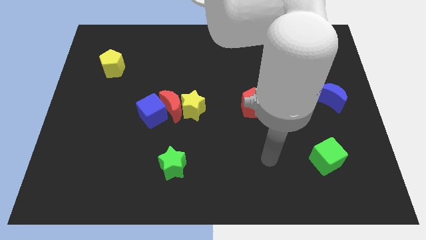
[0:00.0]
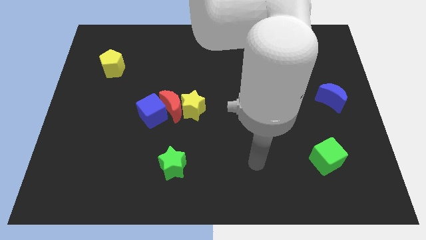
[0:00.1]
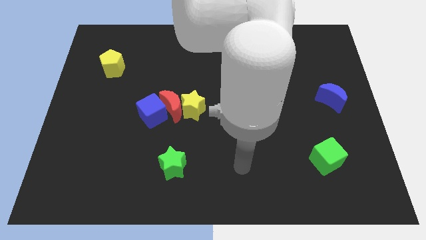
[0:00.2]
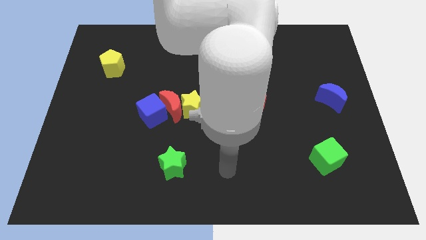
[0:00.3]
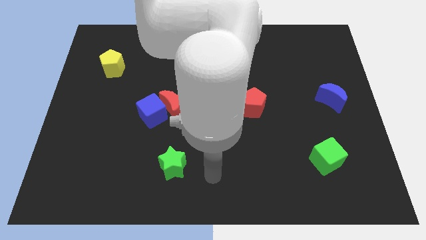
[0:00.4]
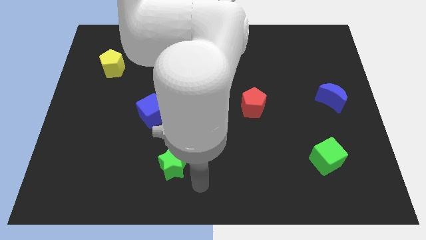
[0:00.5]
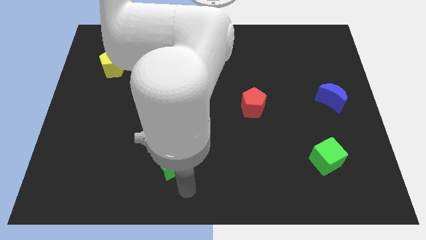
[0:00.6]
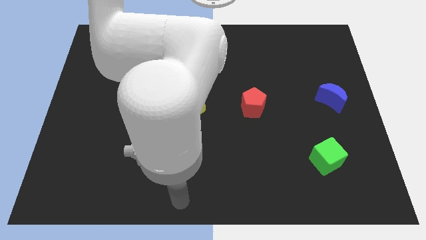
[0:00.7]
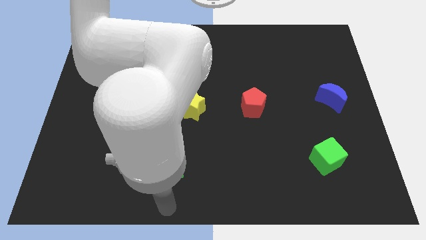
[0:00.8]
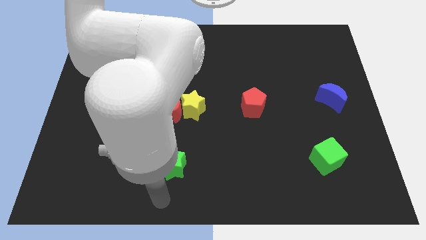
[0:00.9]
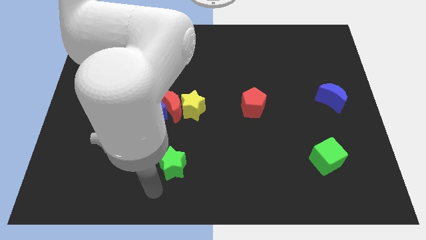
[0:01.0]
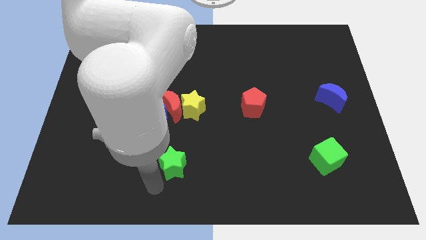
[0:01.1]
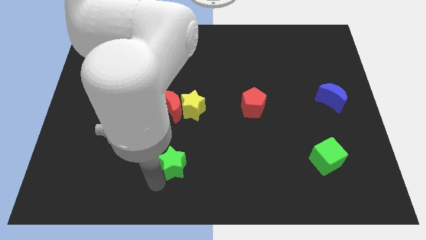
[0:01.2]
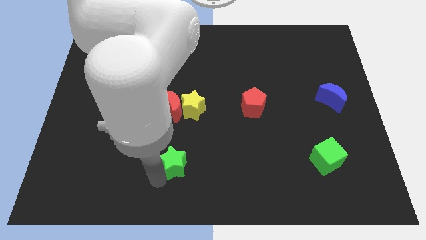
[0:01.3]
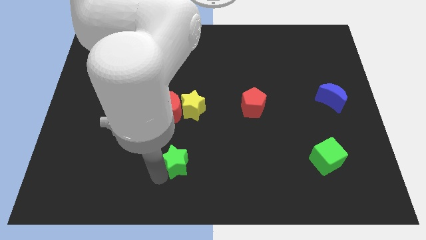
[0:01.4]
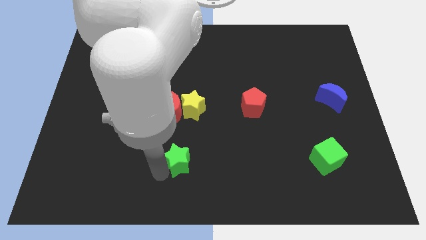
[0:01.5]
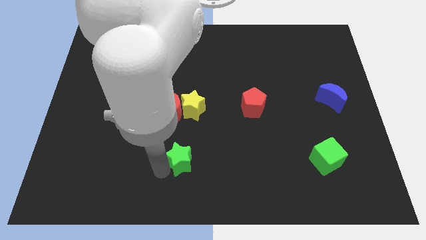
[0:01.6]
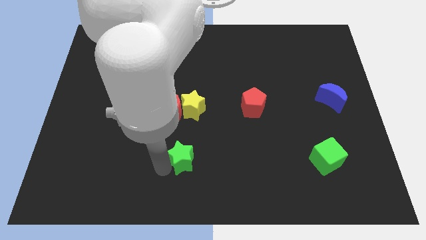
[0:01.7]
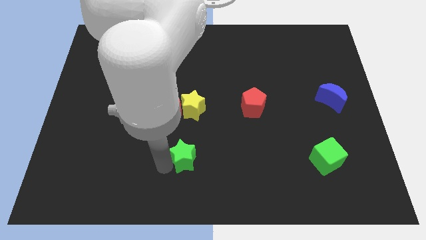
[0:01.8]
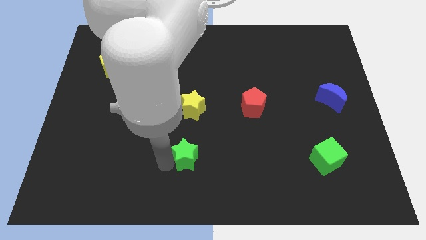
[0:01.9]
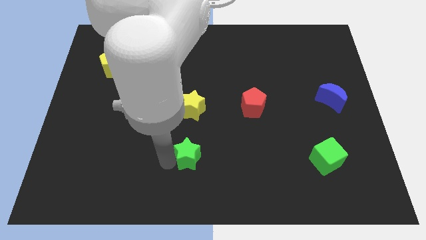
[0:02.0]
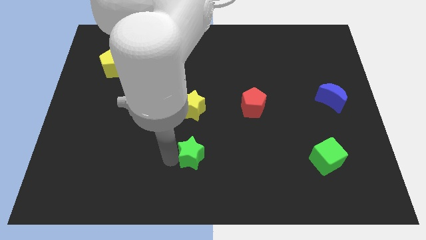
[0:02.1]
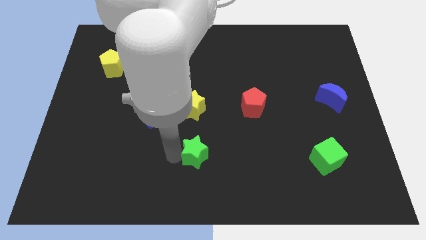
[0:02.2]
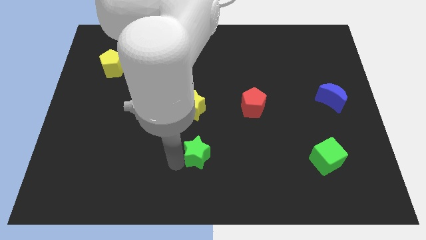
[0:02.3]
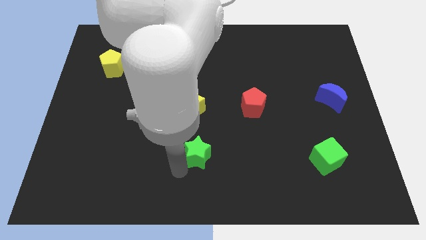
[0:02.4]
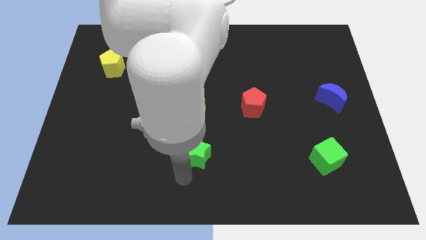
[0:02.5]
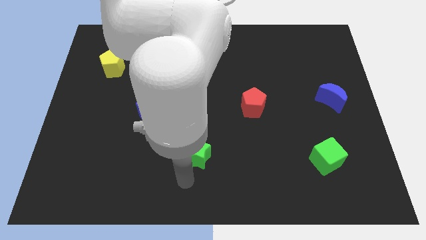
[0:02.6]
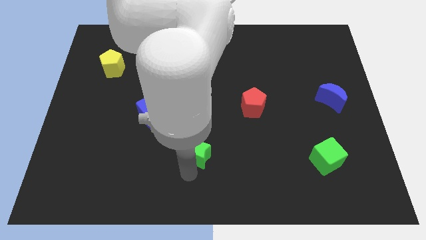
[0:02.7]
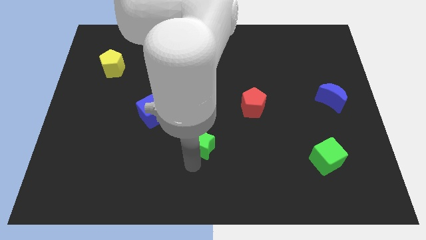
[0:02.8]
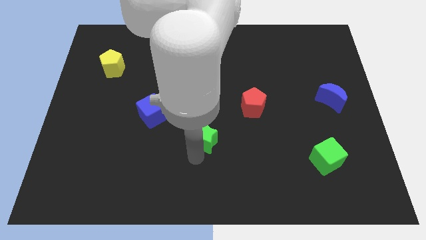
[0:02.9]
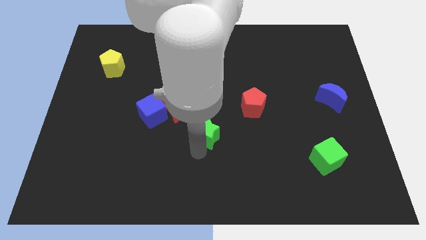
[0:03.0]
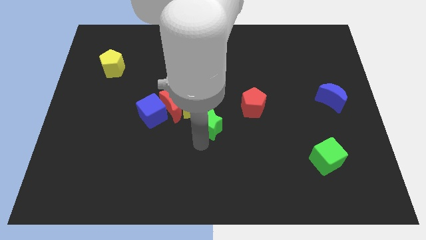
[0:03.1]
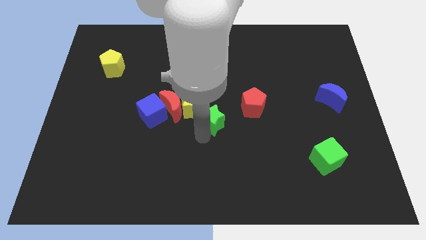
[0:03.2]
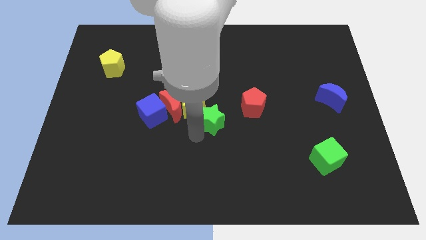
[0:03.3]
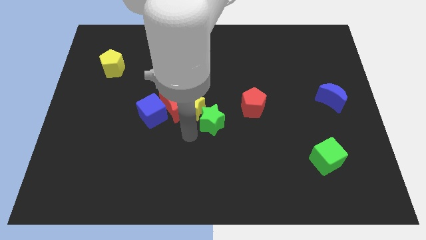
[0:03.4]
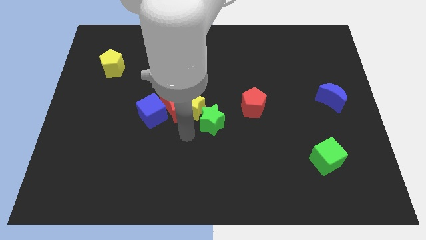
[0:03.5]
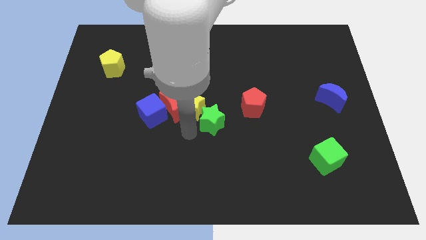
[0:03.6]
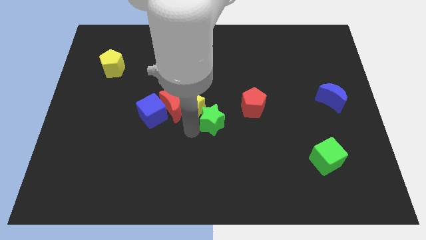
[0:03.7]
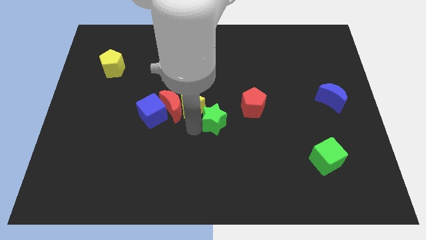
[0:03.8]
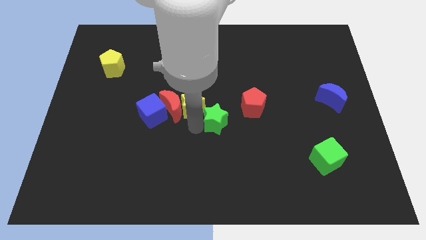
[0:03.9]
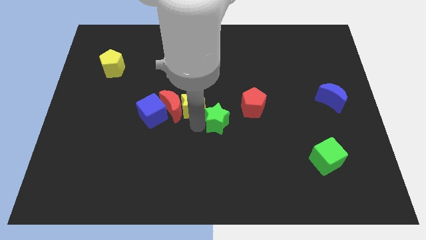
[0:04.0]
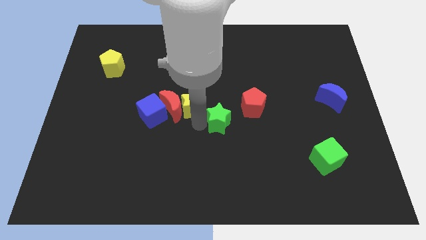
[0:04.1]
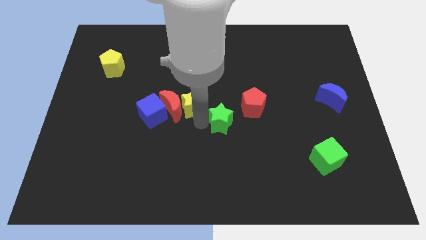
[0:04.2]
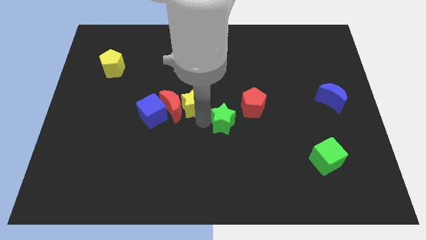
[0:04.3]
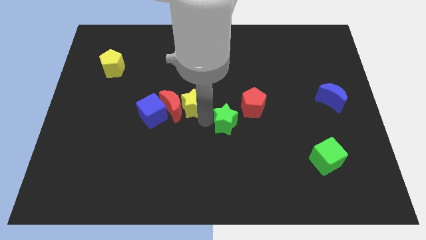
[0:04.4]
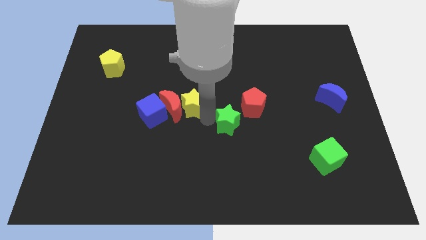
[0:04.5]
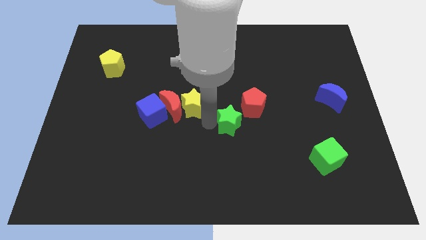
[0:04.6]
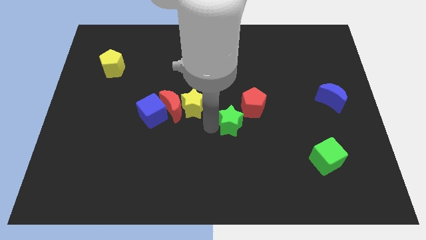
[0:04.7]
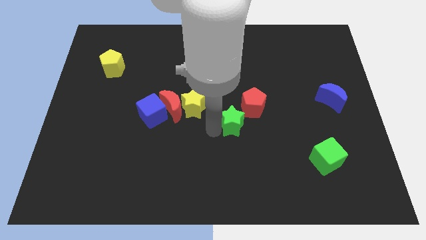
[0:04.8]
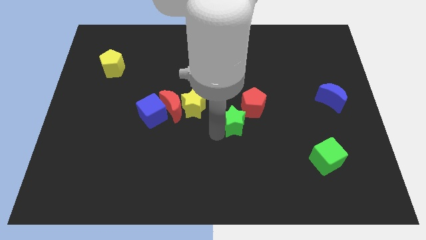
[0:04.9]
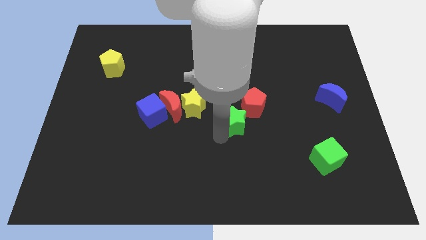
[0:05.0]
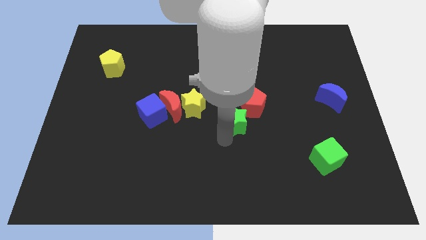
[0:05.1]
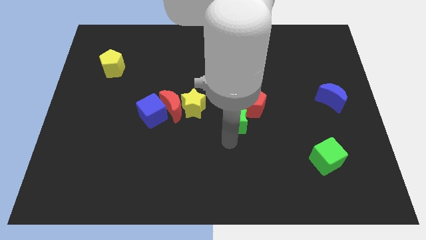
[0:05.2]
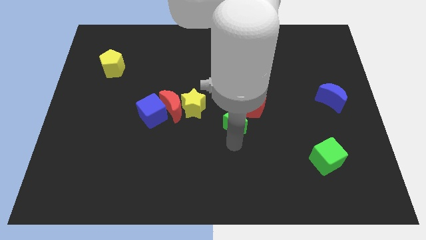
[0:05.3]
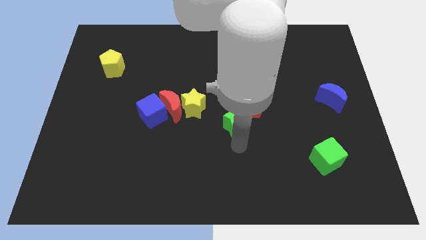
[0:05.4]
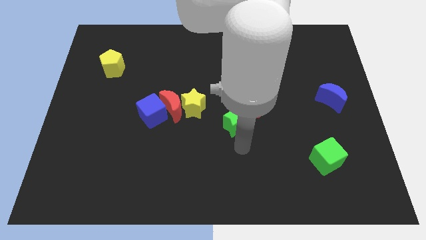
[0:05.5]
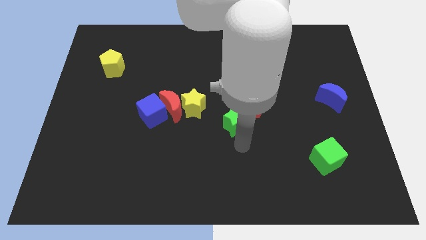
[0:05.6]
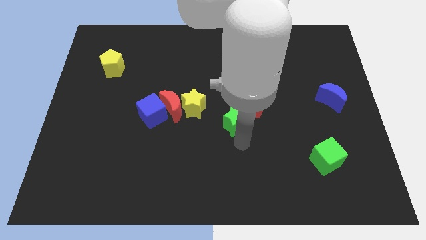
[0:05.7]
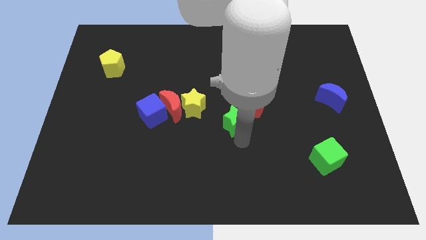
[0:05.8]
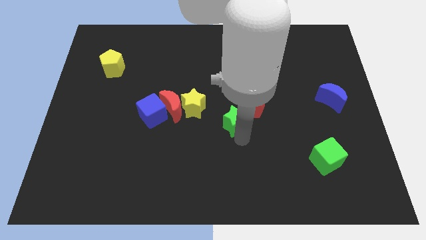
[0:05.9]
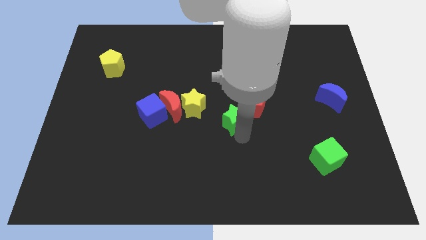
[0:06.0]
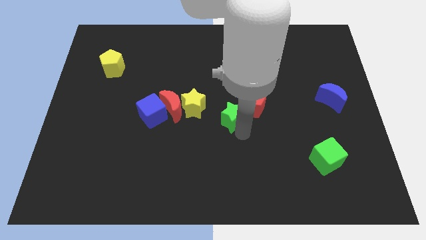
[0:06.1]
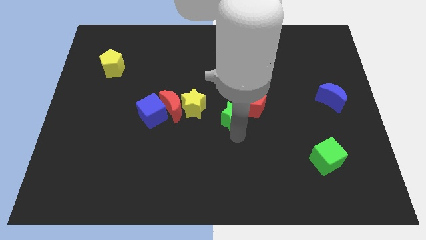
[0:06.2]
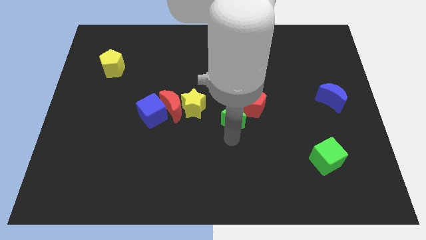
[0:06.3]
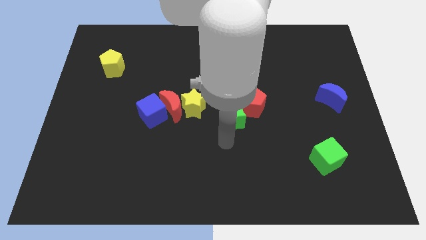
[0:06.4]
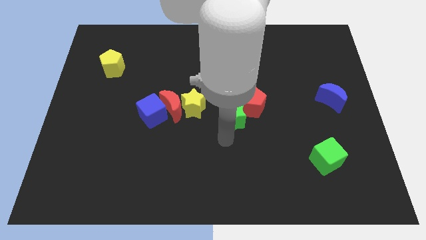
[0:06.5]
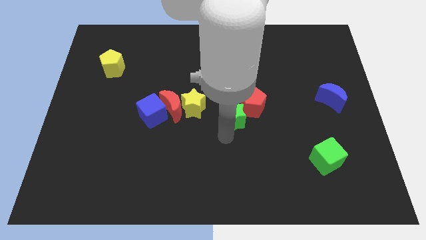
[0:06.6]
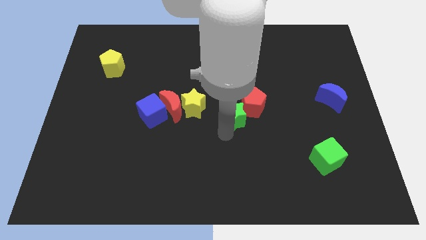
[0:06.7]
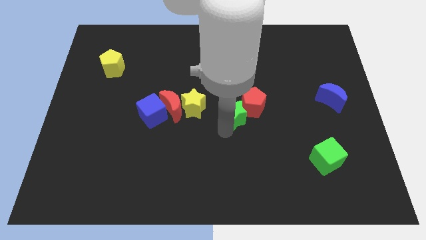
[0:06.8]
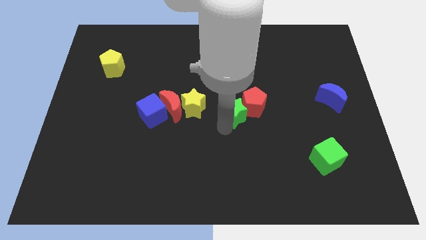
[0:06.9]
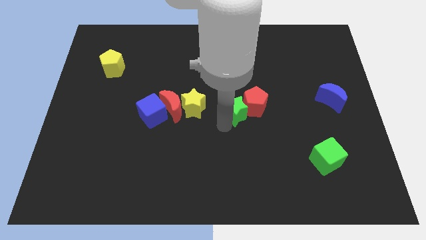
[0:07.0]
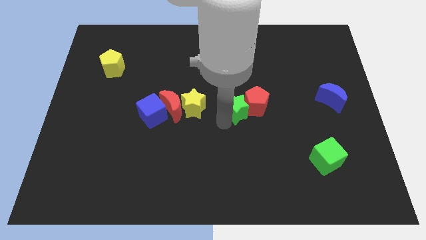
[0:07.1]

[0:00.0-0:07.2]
push the green star diagonally upwards and to the right

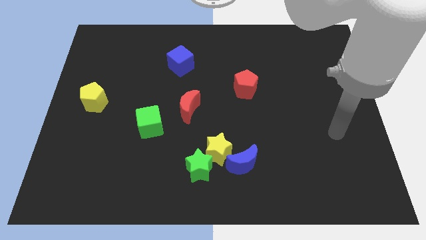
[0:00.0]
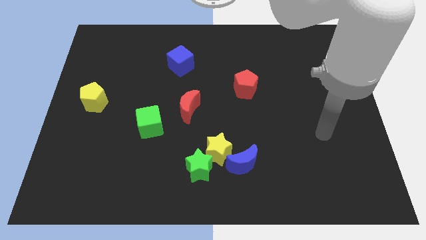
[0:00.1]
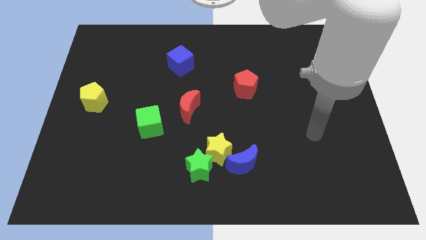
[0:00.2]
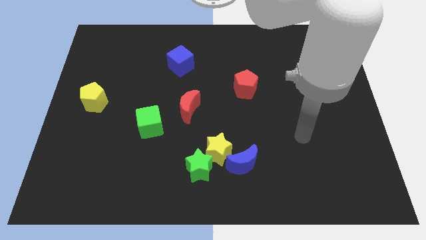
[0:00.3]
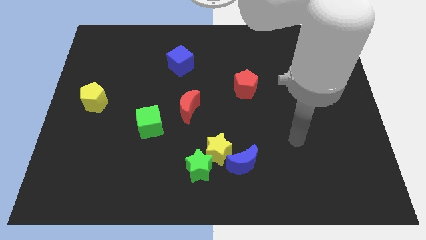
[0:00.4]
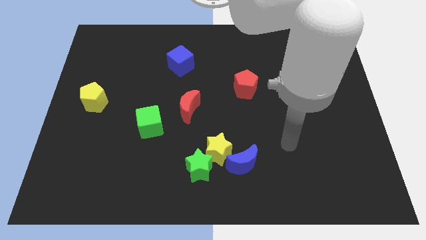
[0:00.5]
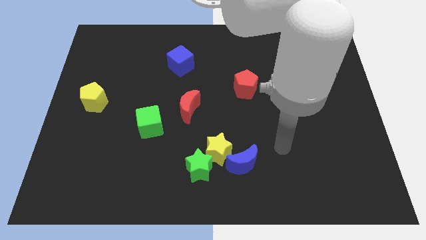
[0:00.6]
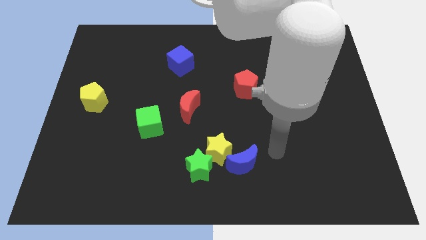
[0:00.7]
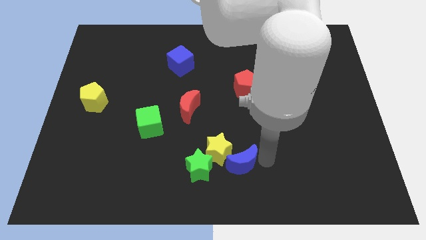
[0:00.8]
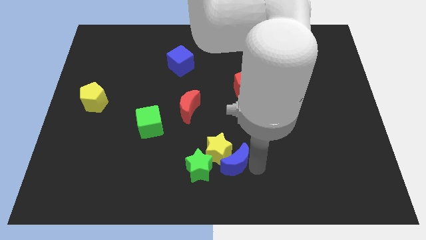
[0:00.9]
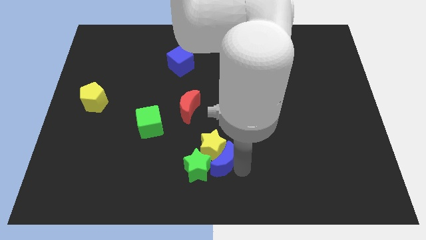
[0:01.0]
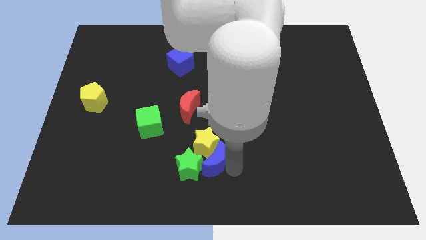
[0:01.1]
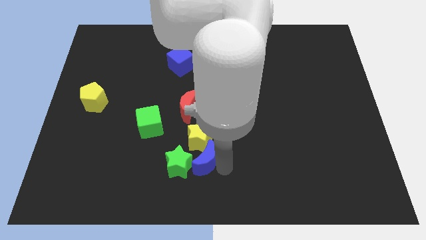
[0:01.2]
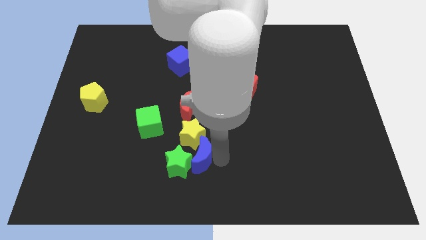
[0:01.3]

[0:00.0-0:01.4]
slide the yellow star somewhat up and to the left

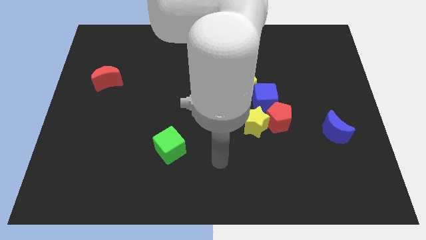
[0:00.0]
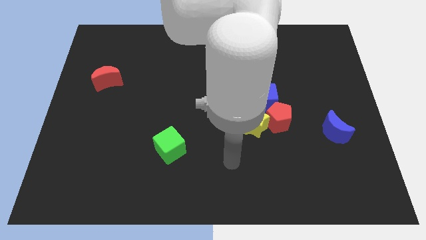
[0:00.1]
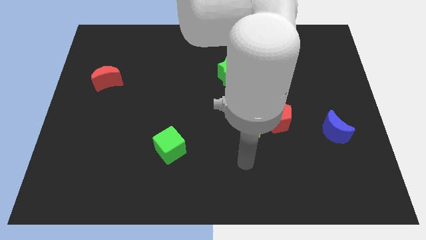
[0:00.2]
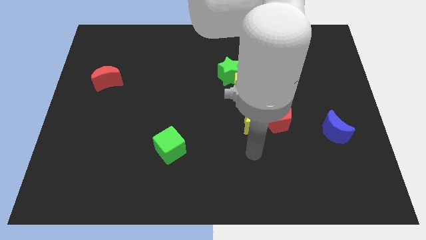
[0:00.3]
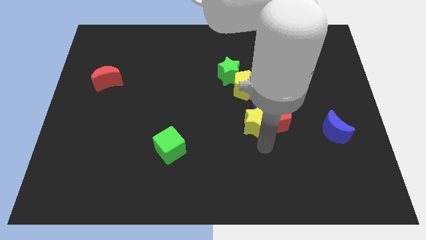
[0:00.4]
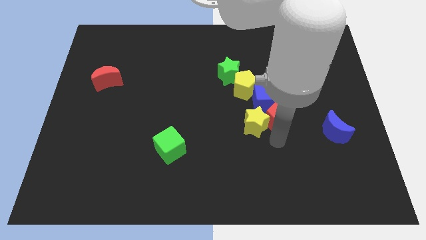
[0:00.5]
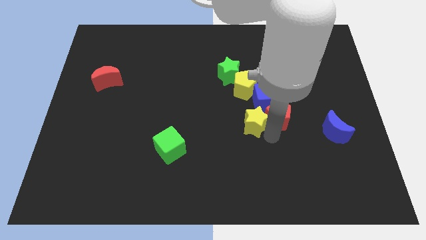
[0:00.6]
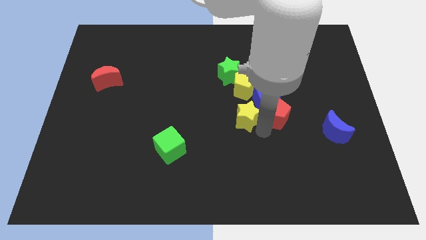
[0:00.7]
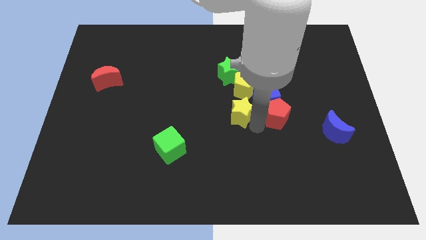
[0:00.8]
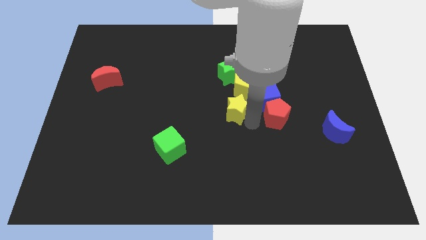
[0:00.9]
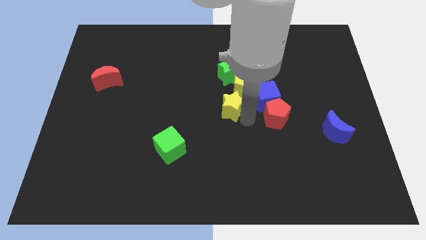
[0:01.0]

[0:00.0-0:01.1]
slide the yellow star upwards and then left a bit
